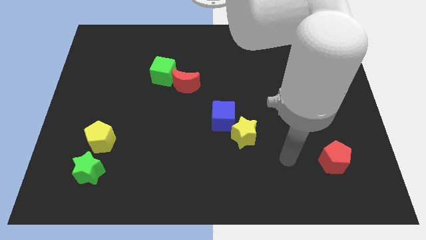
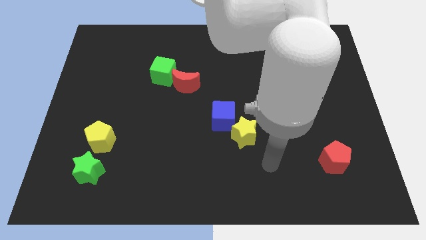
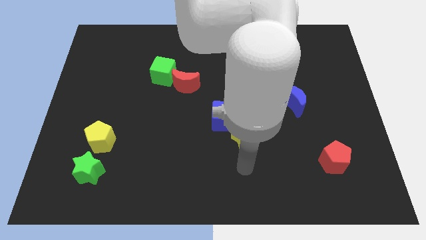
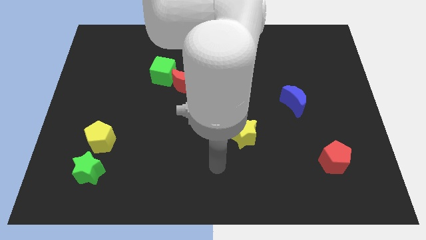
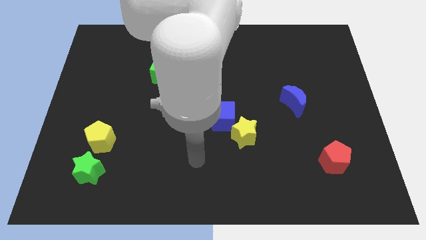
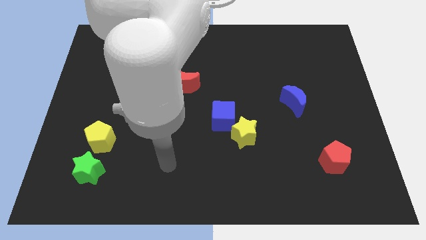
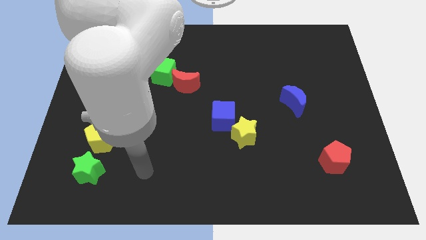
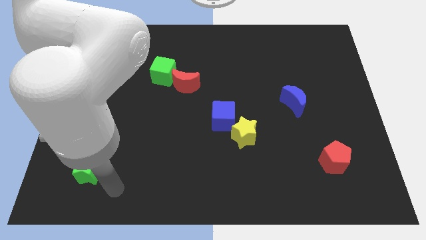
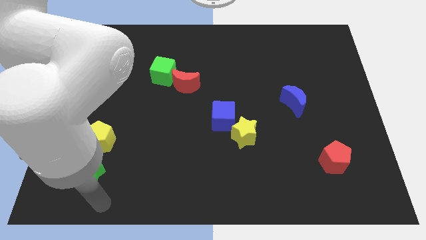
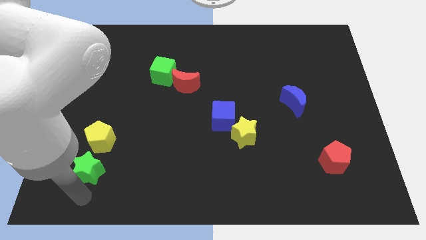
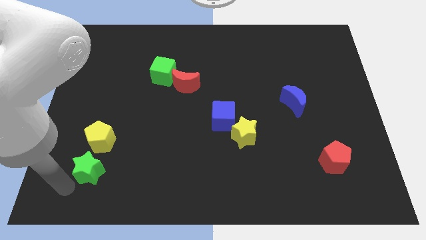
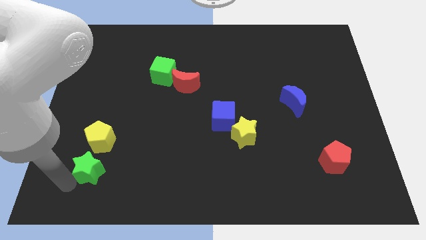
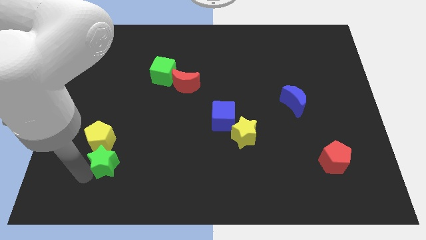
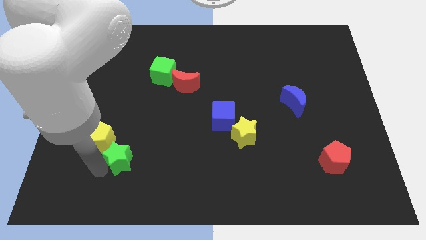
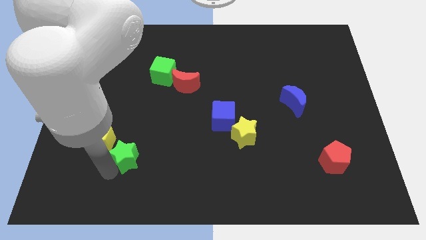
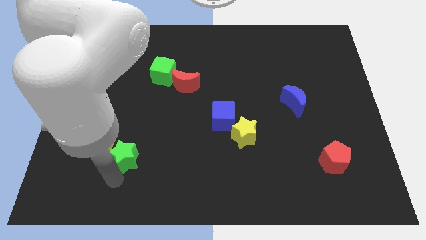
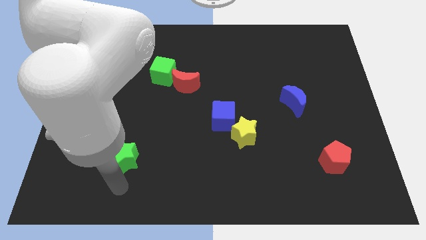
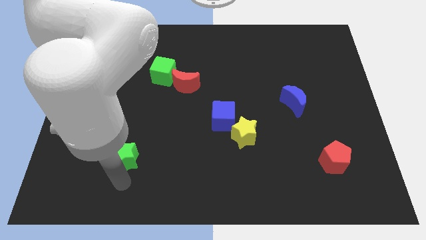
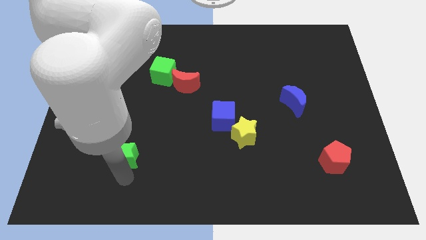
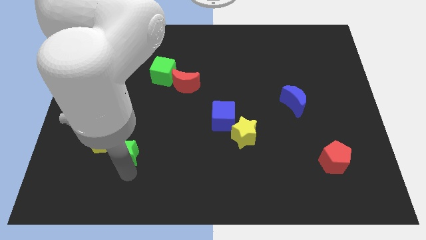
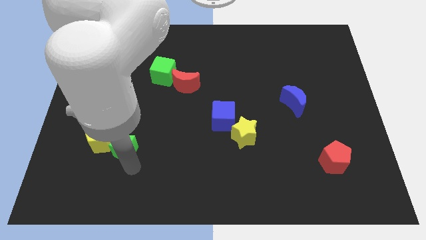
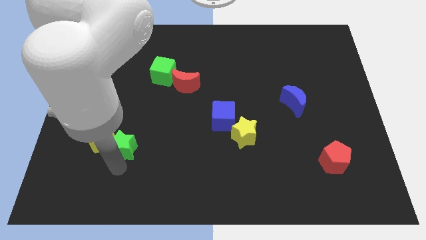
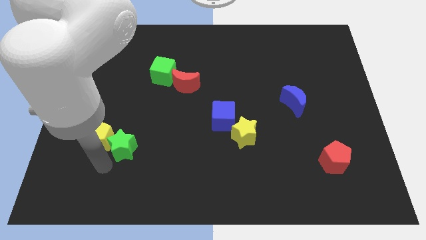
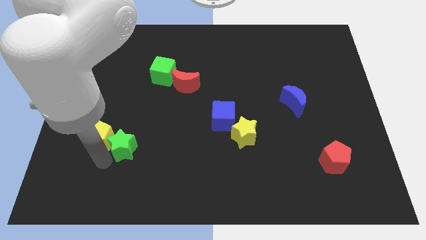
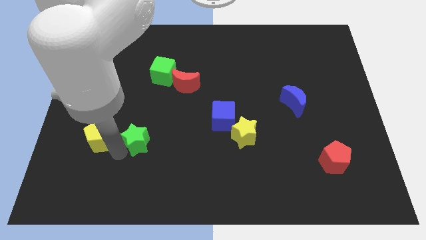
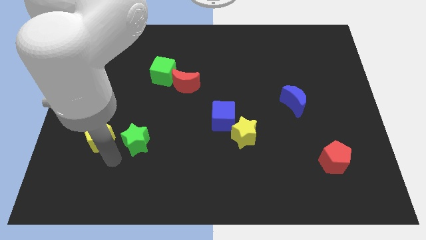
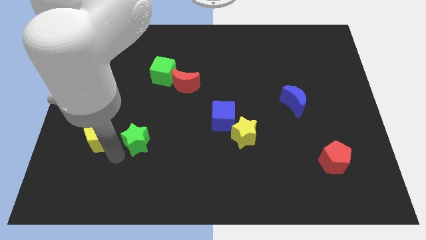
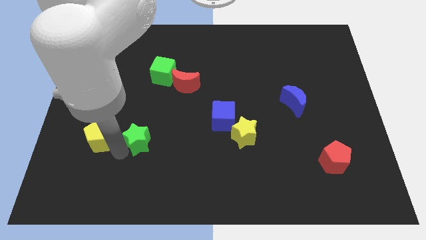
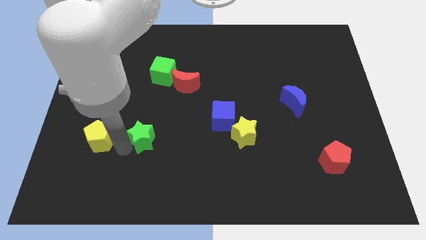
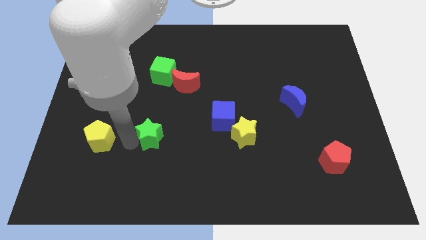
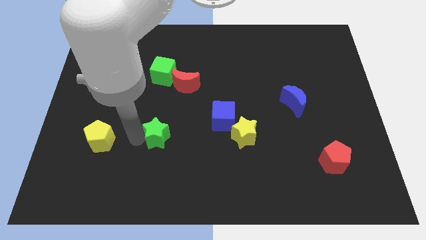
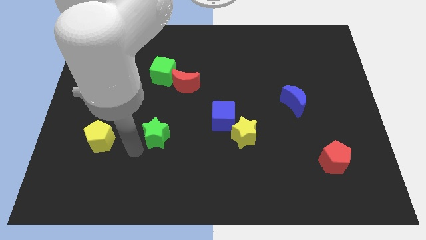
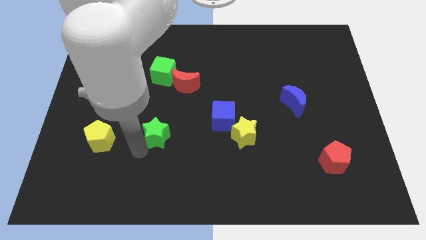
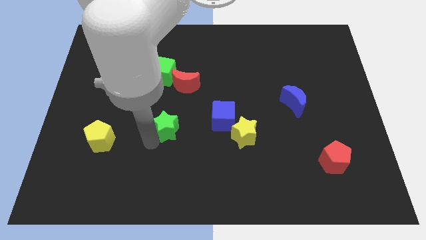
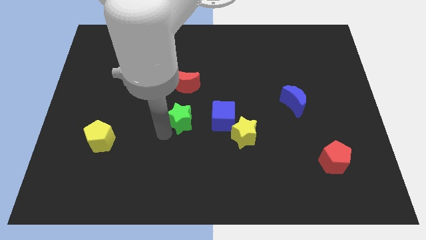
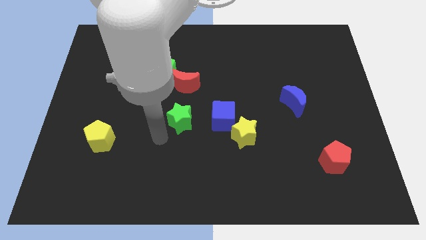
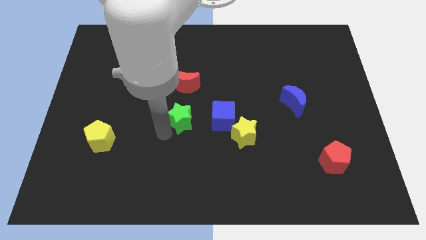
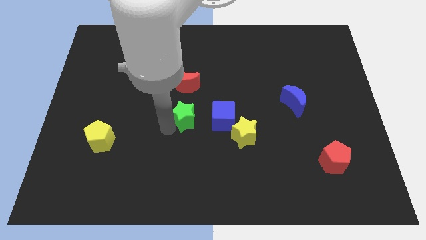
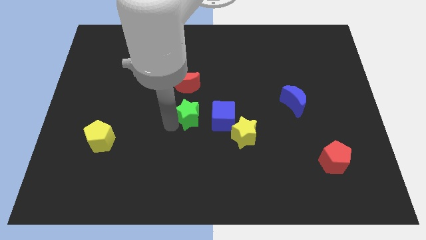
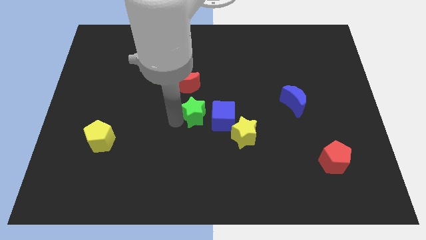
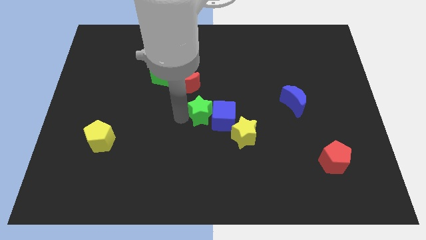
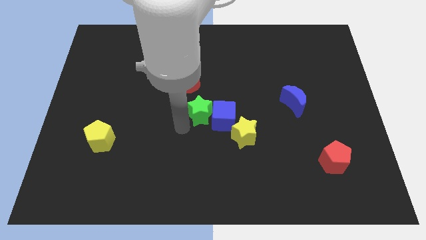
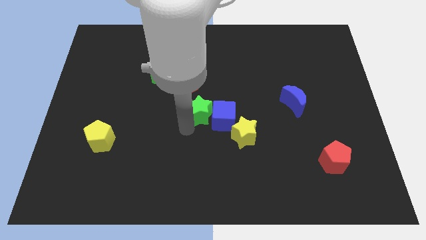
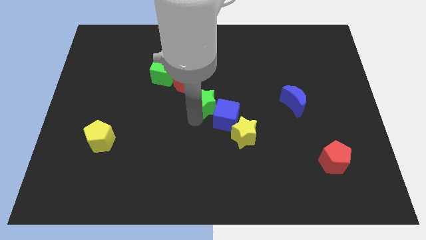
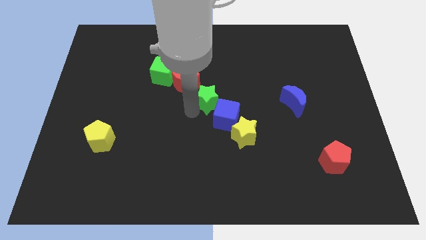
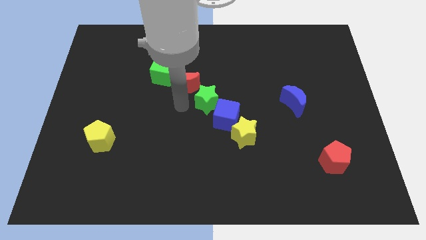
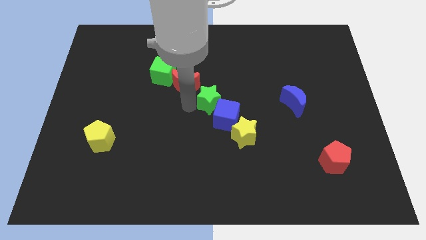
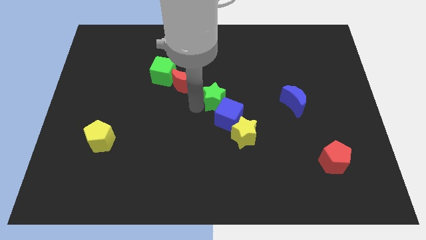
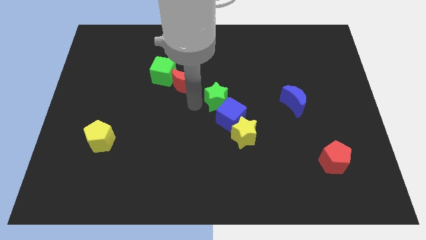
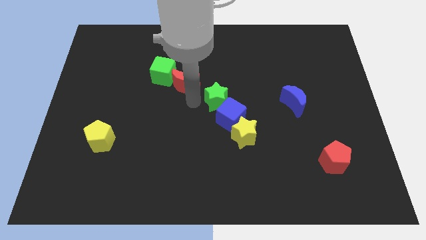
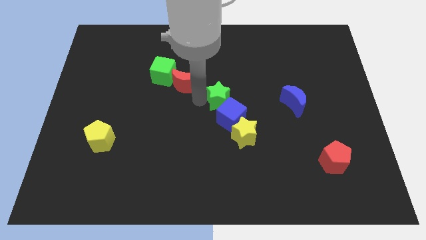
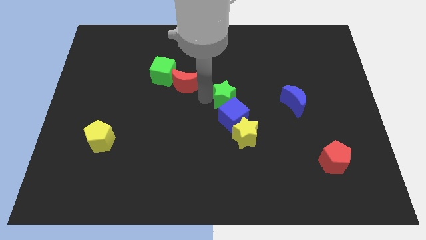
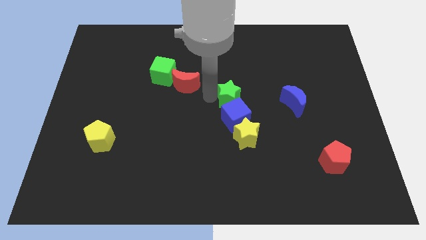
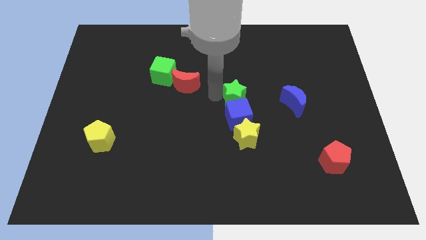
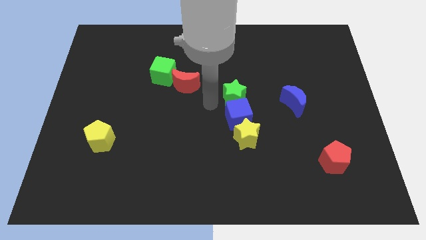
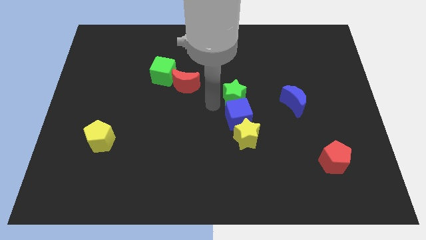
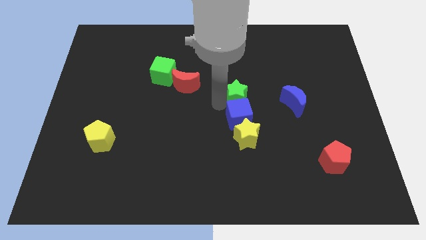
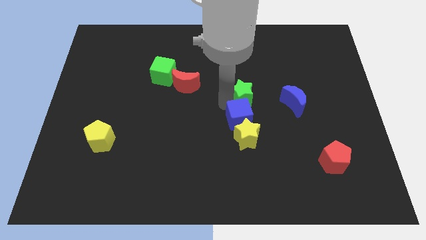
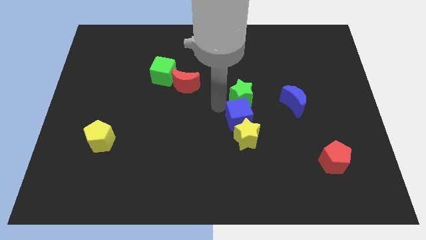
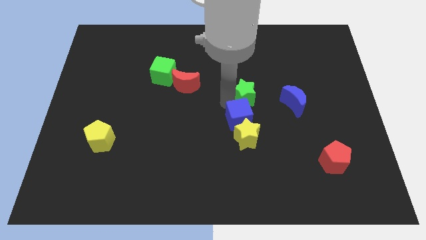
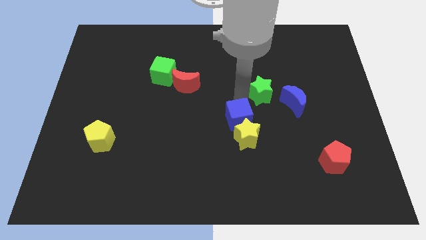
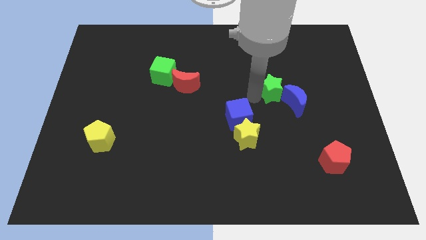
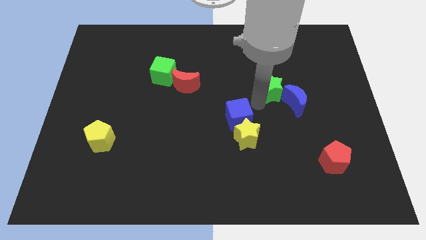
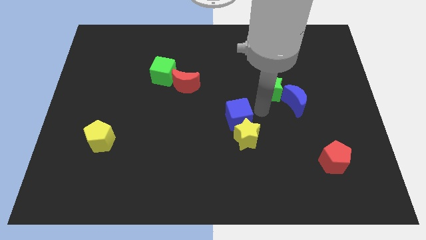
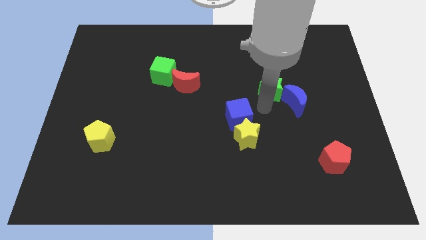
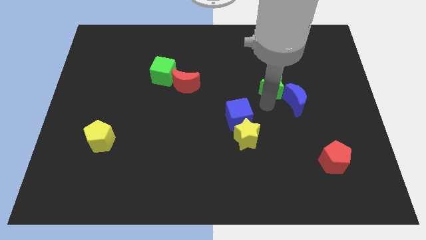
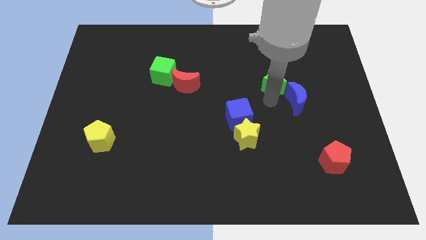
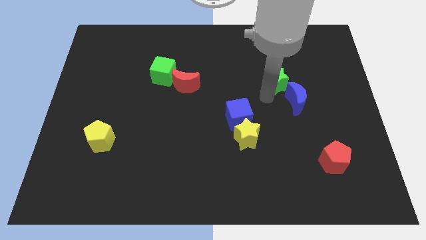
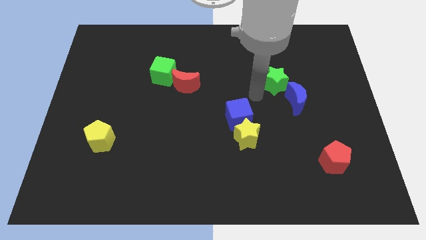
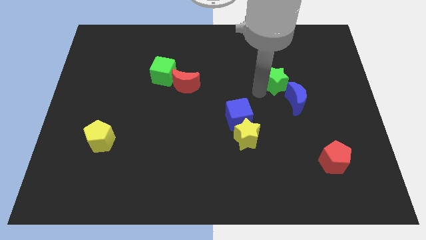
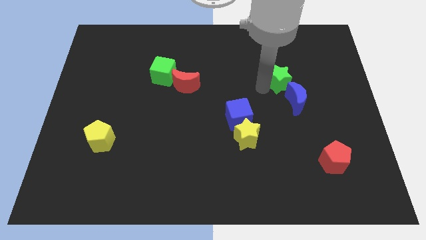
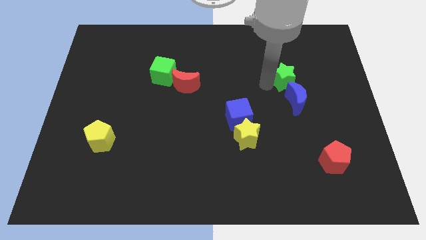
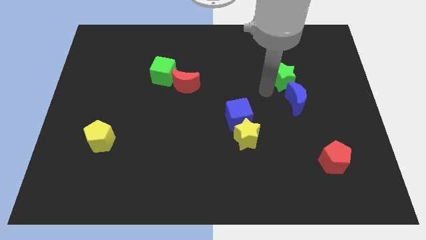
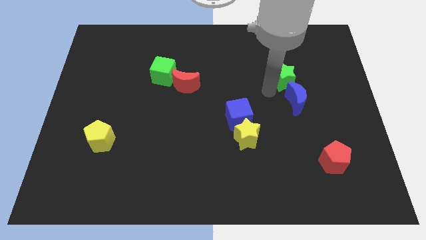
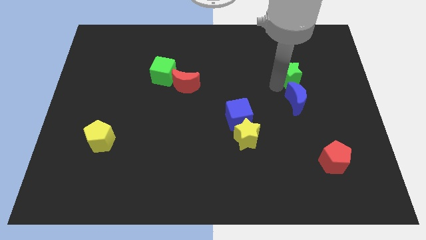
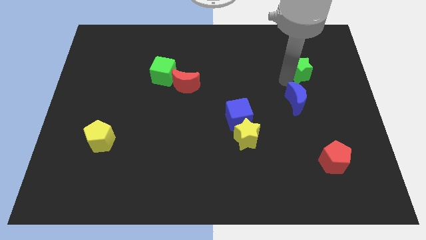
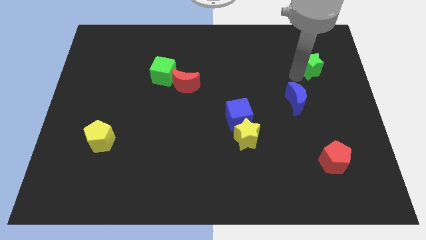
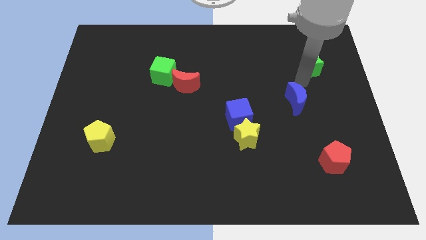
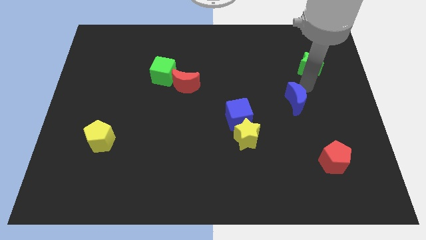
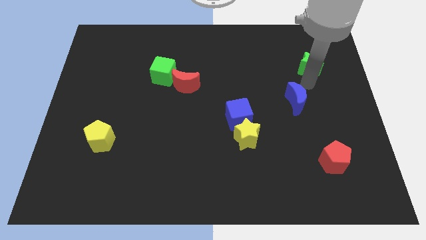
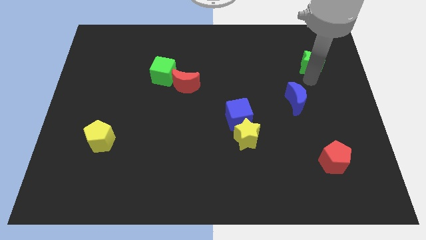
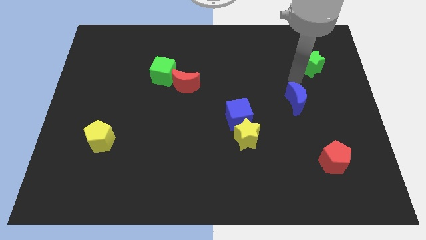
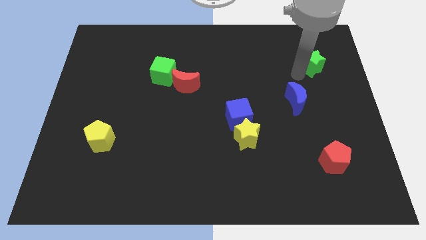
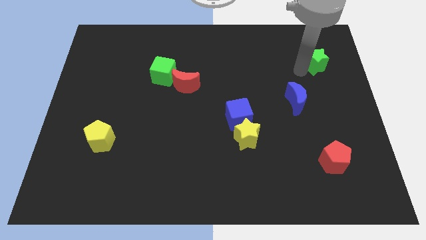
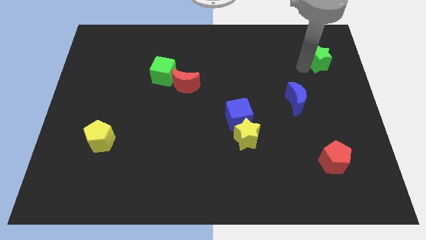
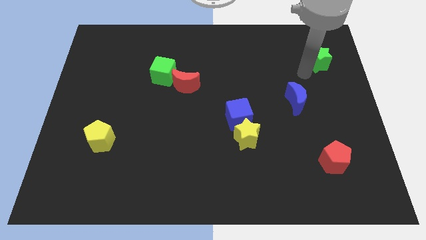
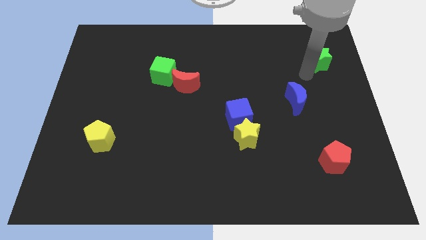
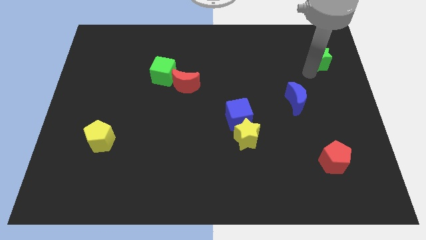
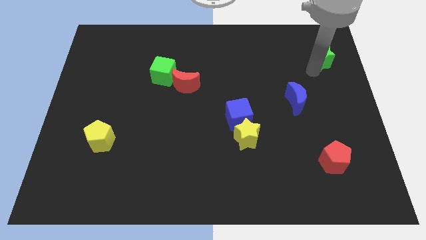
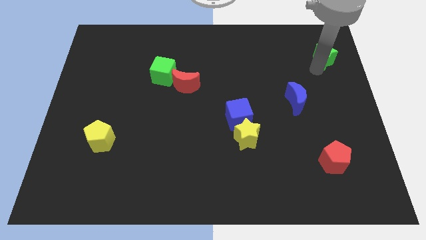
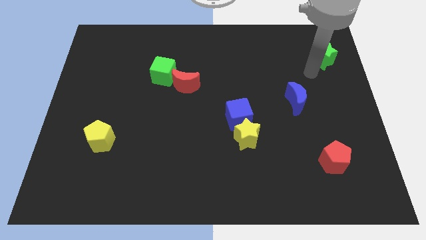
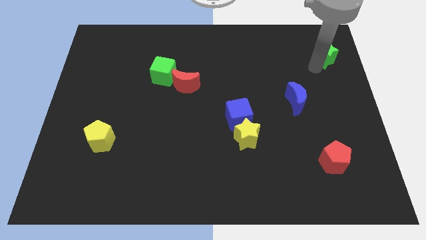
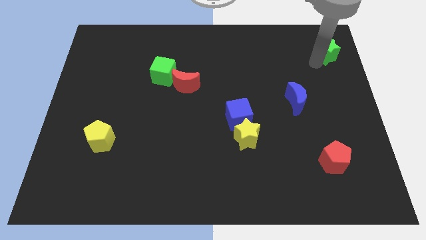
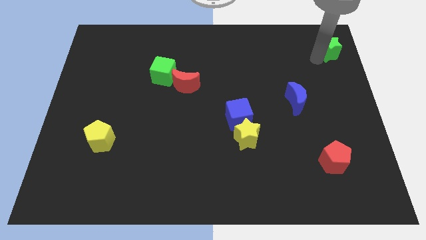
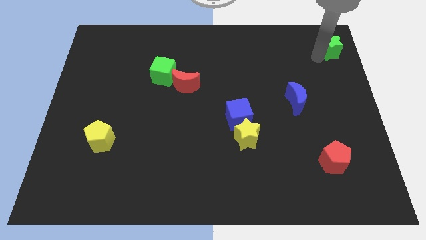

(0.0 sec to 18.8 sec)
move the green star to the upper right corner
